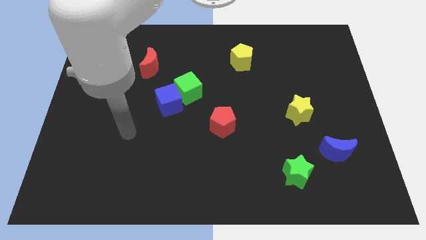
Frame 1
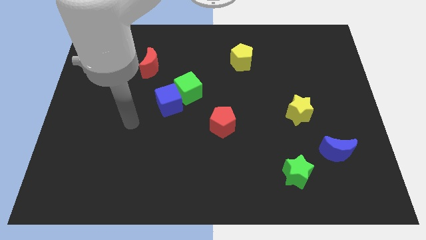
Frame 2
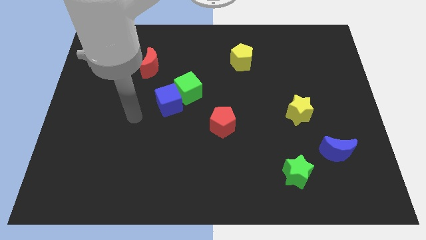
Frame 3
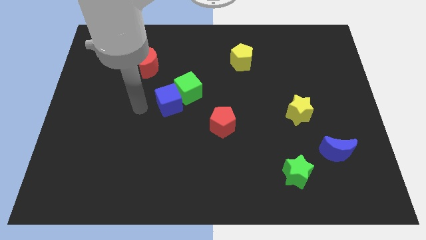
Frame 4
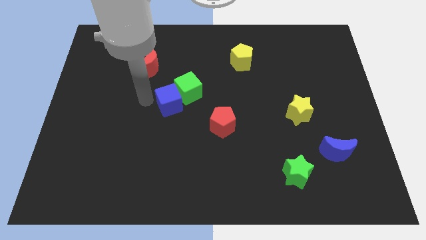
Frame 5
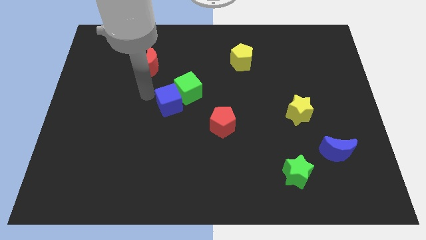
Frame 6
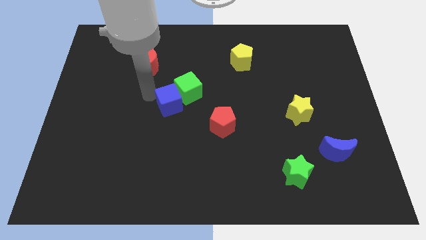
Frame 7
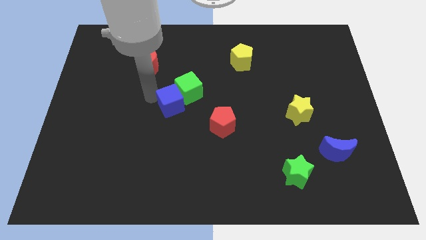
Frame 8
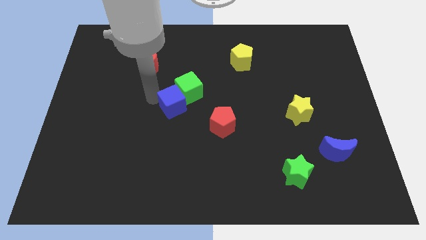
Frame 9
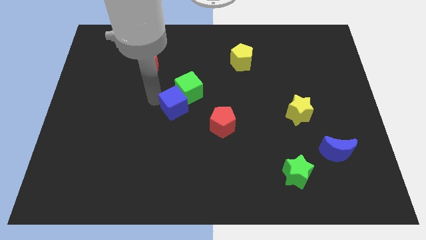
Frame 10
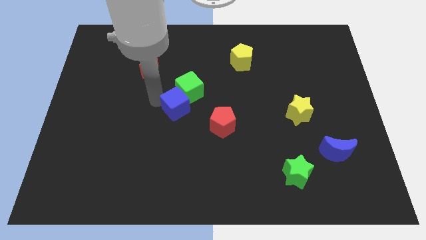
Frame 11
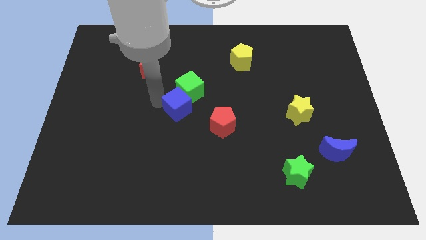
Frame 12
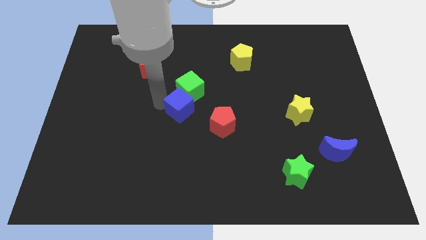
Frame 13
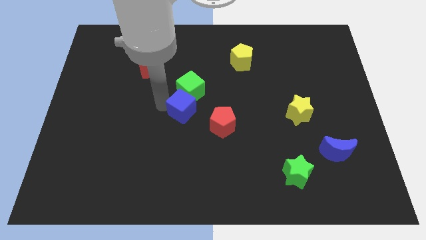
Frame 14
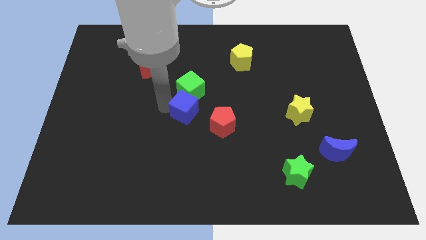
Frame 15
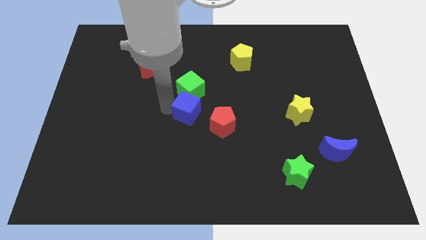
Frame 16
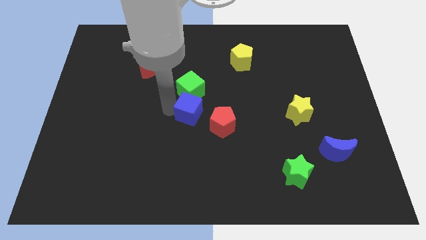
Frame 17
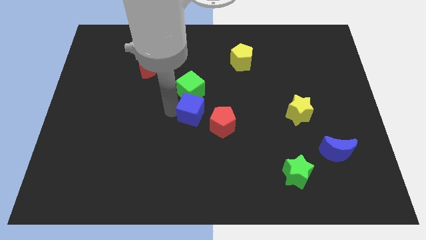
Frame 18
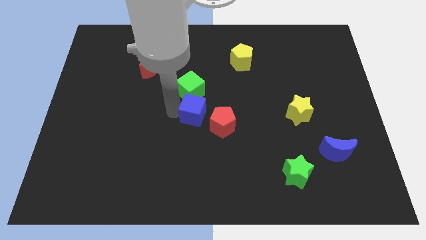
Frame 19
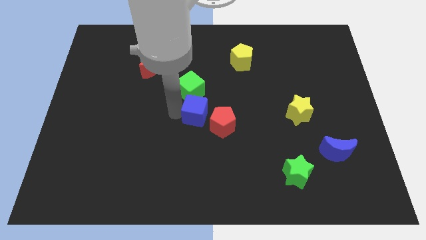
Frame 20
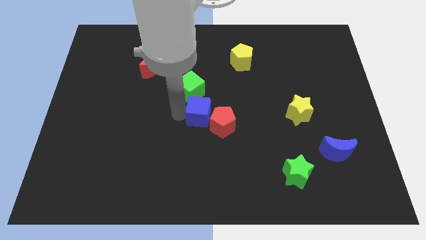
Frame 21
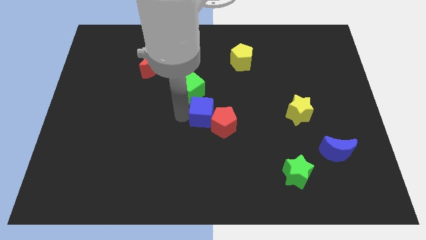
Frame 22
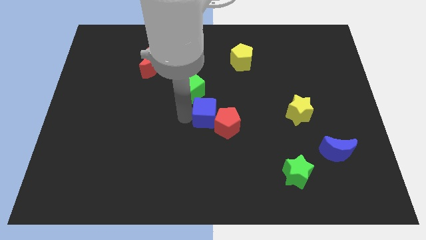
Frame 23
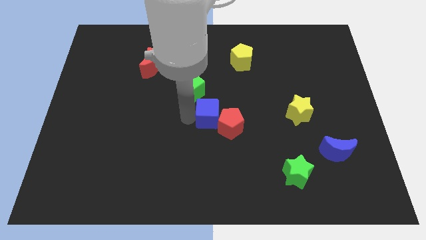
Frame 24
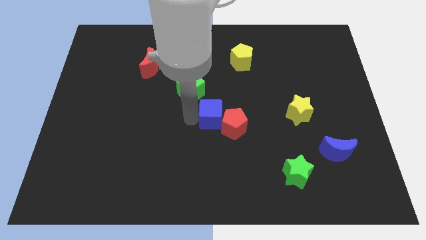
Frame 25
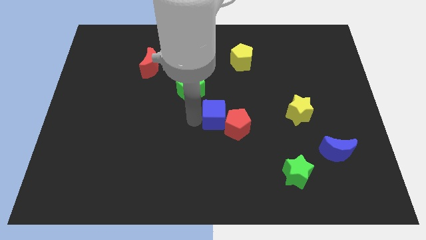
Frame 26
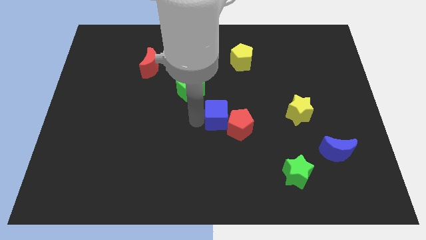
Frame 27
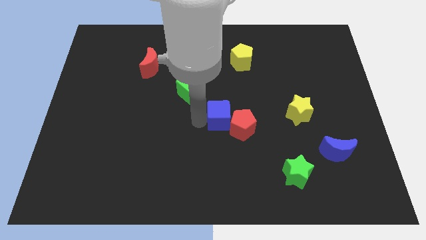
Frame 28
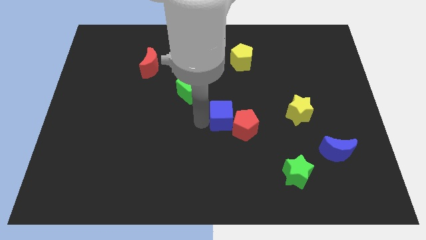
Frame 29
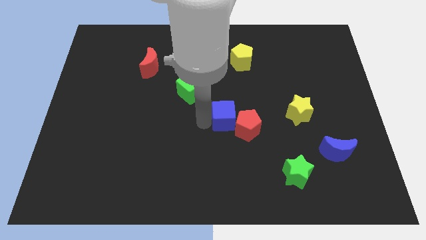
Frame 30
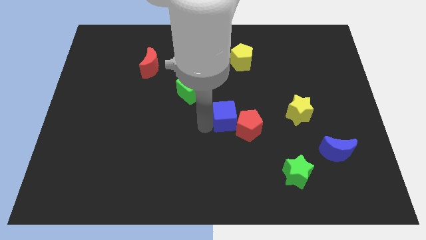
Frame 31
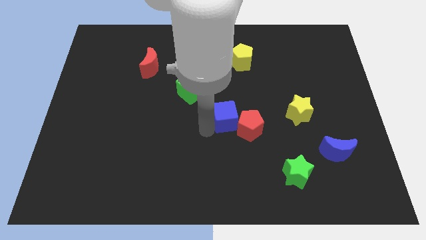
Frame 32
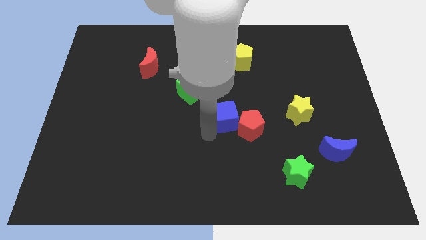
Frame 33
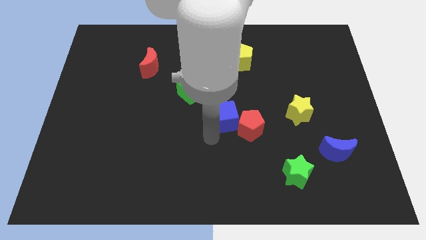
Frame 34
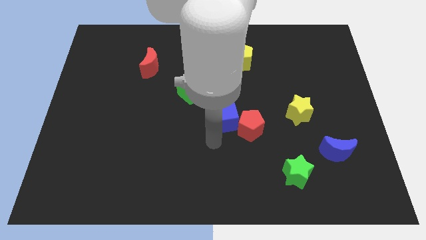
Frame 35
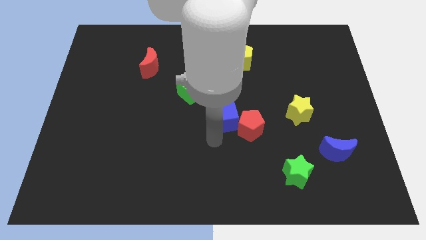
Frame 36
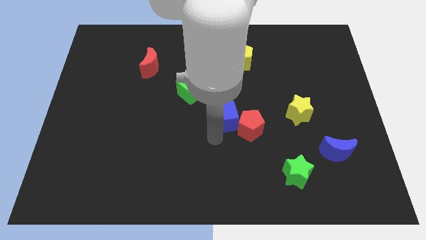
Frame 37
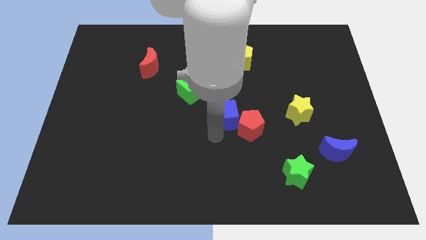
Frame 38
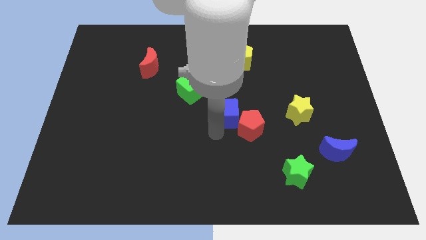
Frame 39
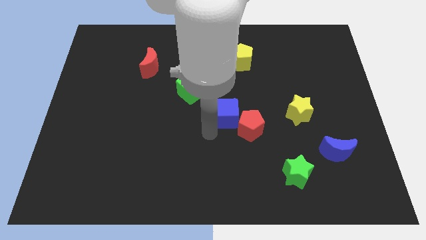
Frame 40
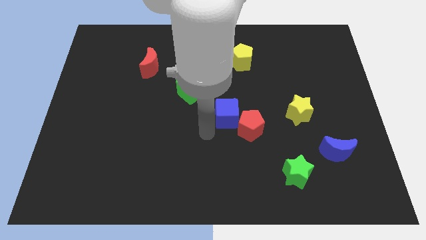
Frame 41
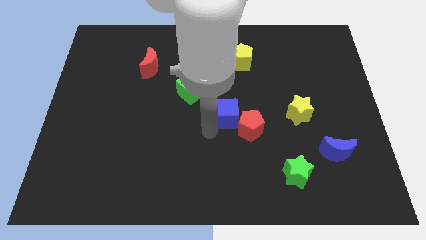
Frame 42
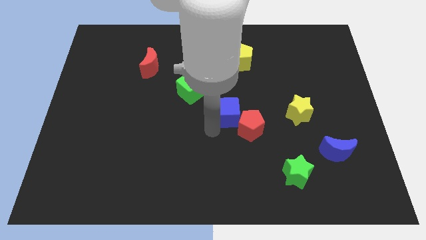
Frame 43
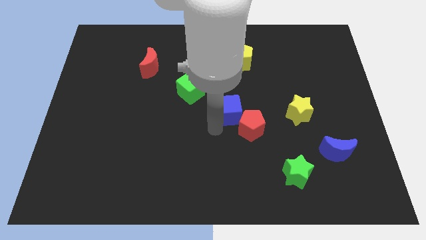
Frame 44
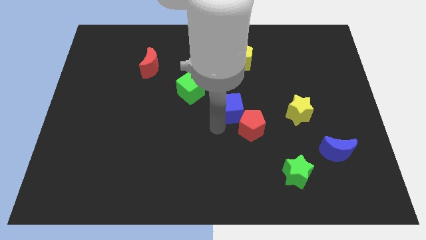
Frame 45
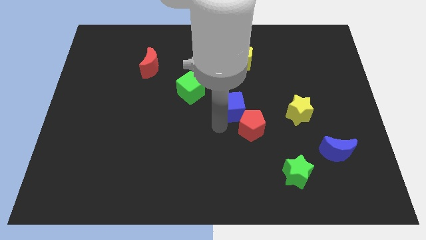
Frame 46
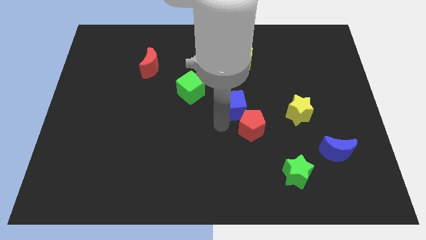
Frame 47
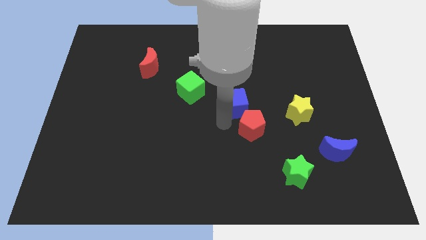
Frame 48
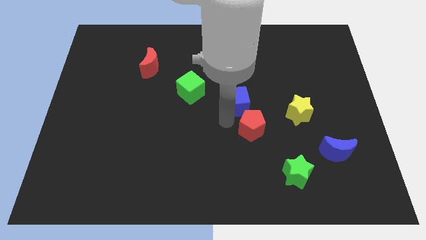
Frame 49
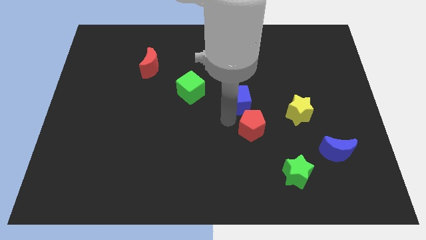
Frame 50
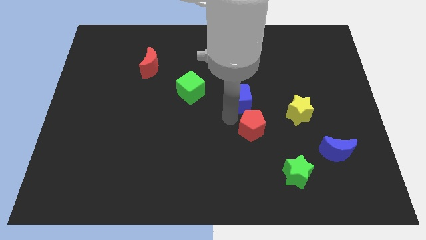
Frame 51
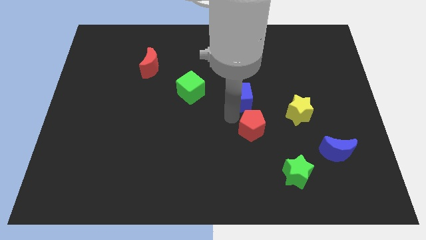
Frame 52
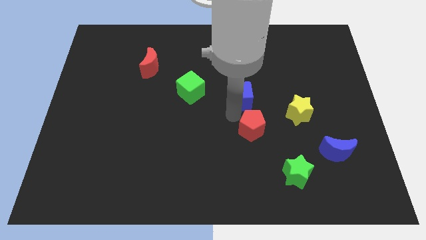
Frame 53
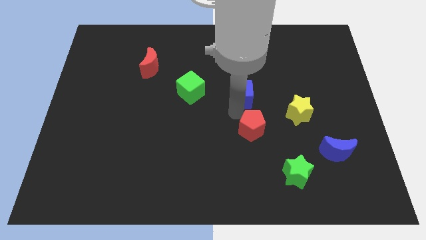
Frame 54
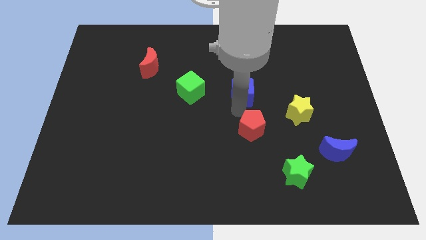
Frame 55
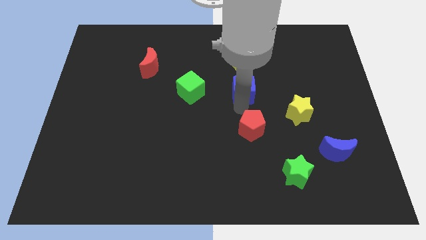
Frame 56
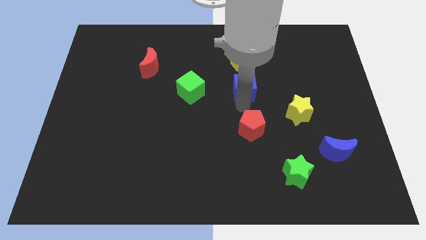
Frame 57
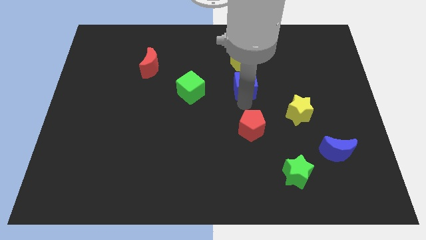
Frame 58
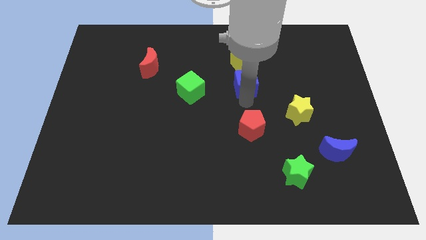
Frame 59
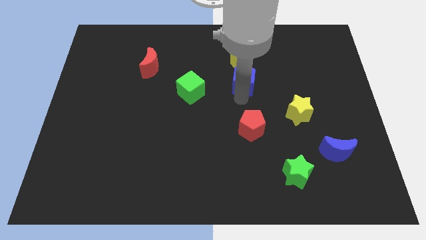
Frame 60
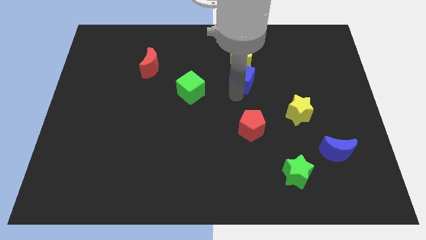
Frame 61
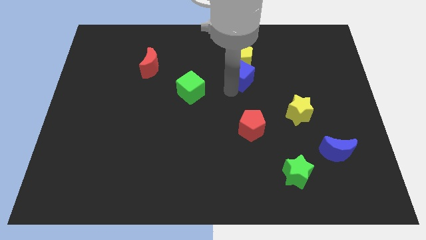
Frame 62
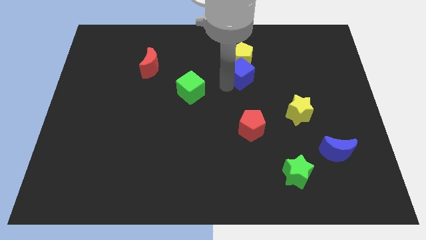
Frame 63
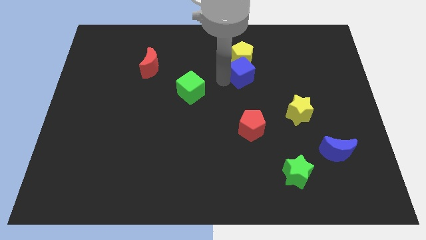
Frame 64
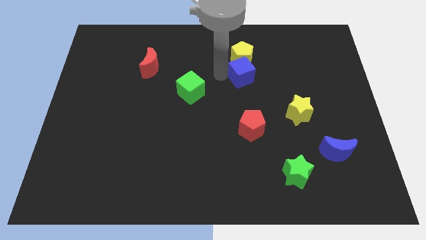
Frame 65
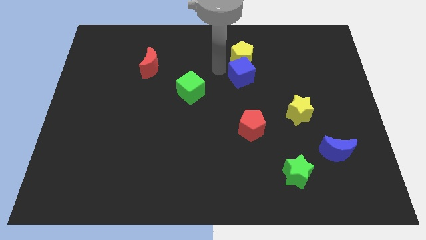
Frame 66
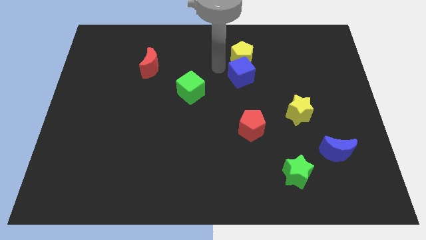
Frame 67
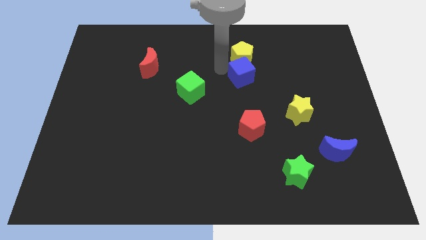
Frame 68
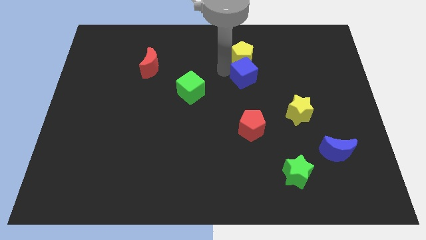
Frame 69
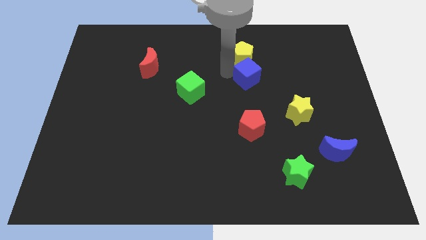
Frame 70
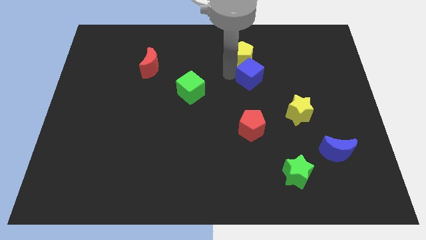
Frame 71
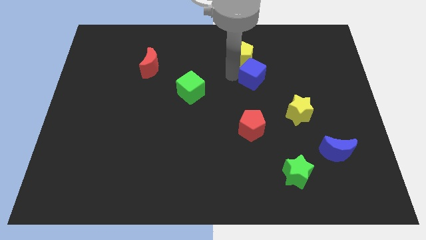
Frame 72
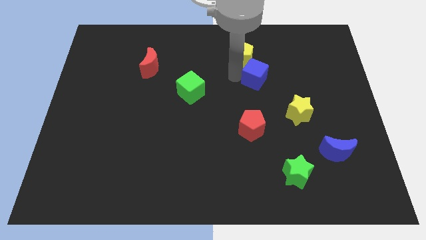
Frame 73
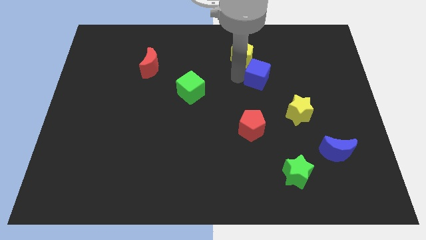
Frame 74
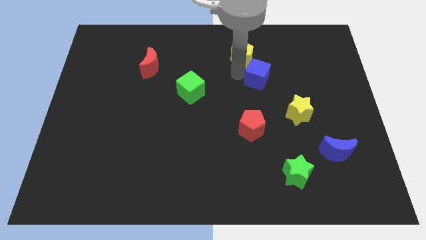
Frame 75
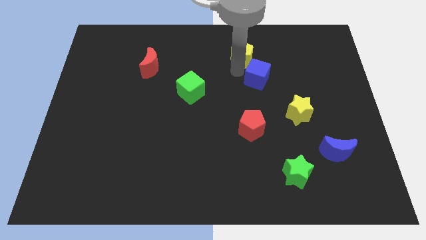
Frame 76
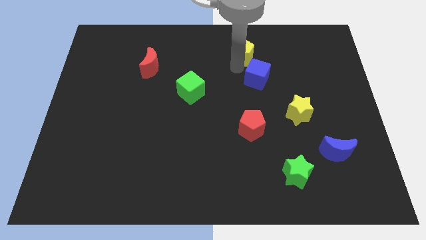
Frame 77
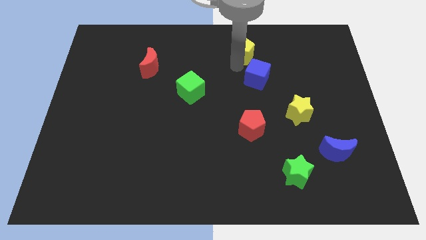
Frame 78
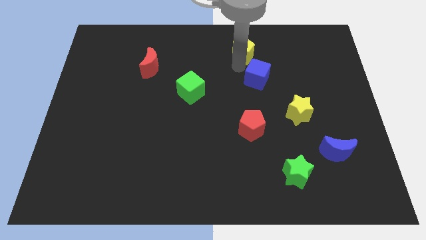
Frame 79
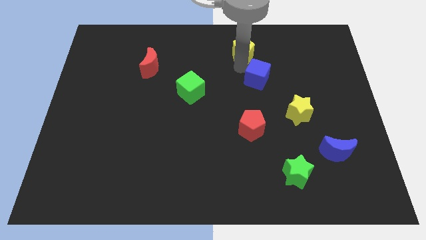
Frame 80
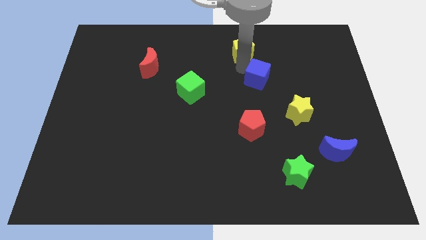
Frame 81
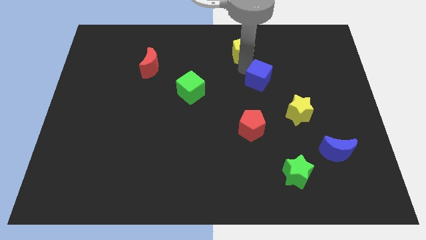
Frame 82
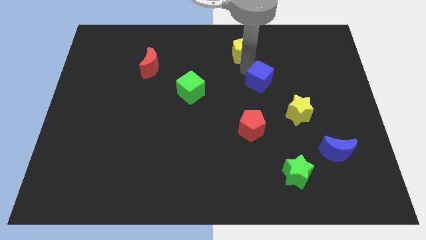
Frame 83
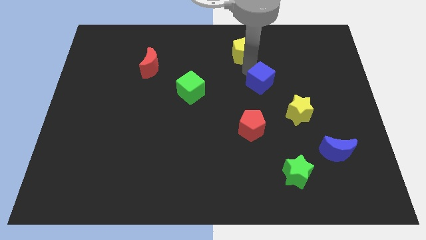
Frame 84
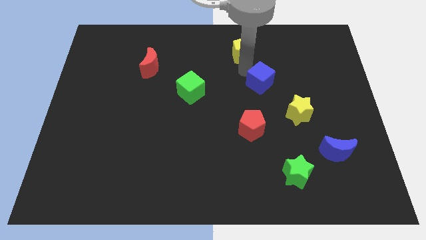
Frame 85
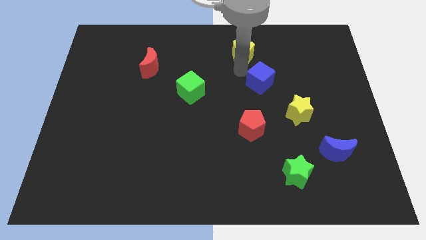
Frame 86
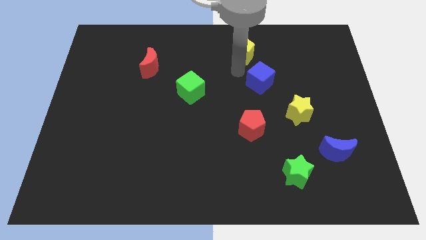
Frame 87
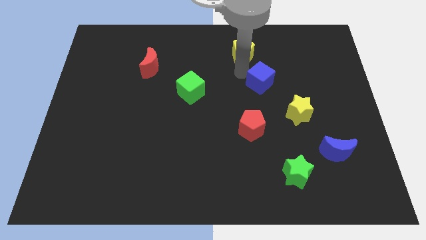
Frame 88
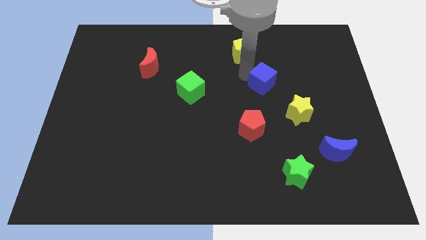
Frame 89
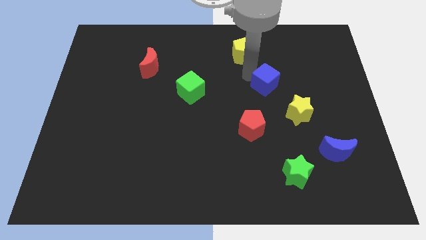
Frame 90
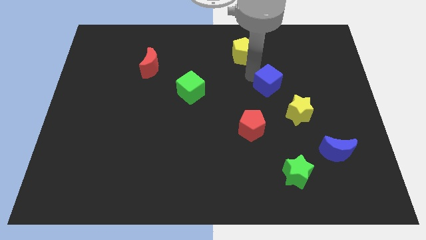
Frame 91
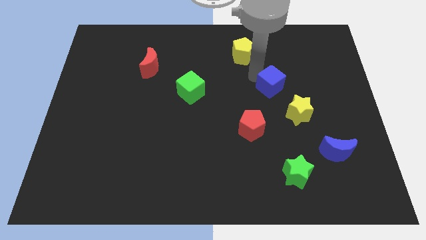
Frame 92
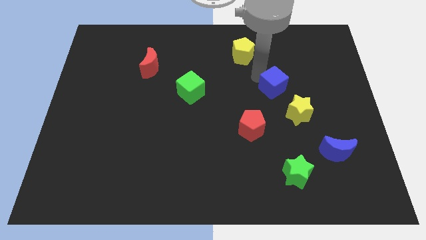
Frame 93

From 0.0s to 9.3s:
push the blue cube to the top of the yellow star
